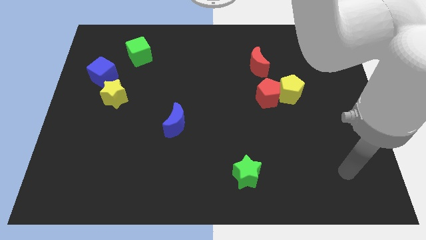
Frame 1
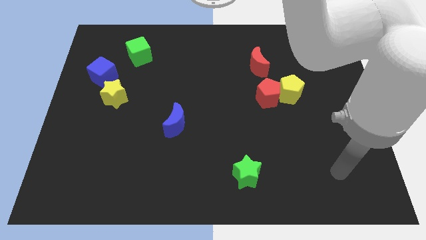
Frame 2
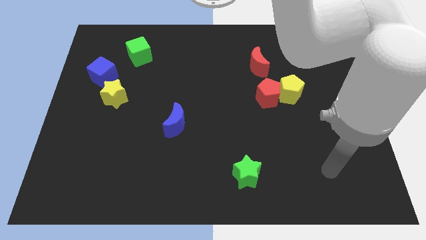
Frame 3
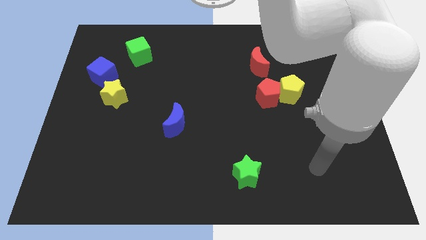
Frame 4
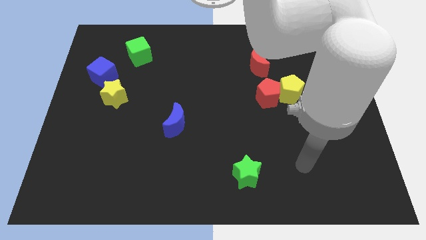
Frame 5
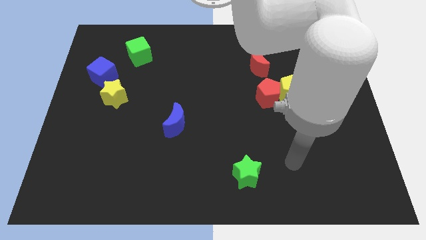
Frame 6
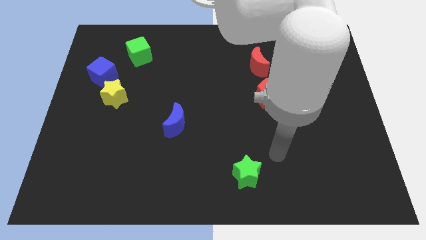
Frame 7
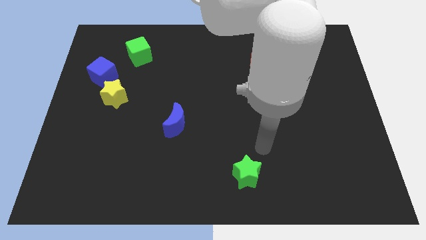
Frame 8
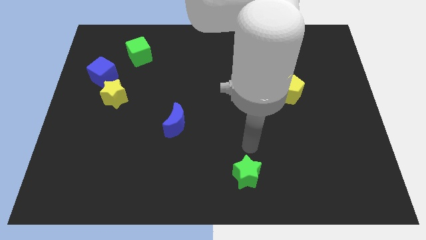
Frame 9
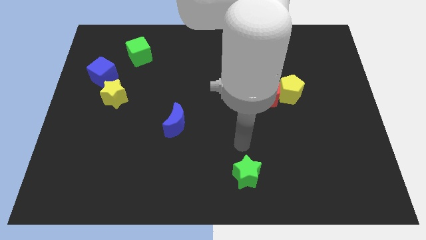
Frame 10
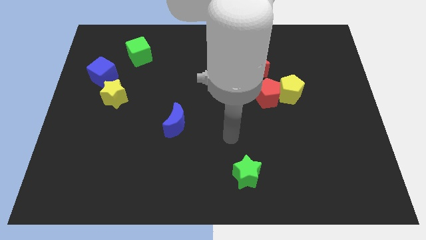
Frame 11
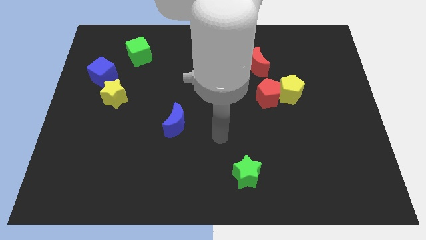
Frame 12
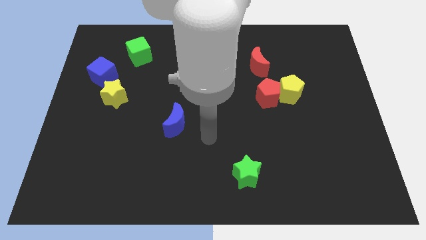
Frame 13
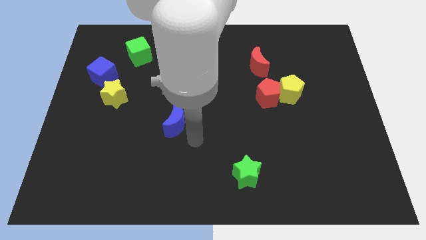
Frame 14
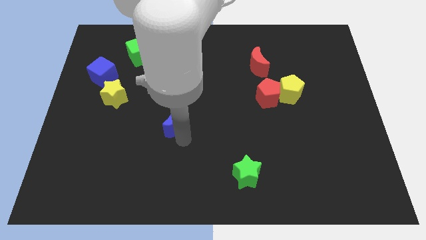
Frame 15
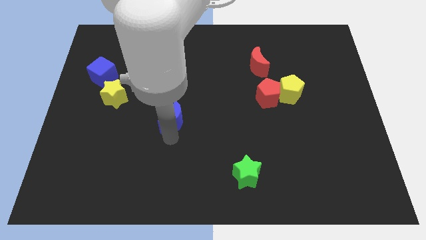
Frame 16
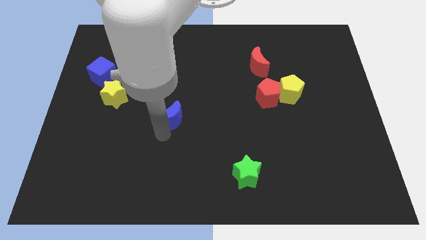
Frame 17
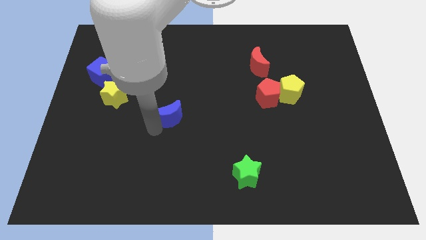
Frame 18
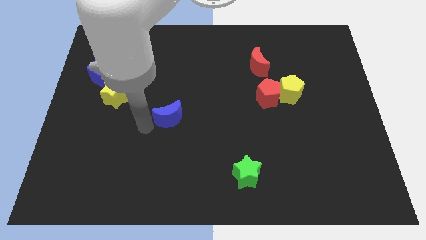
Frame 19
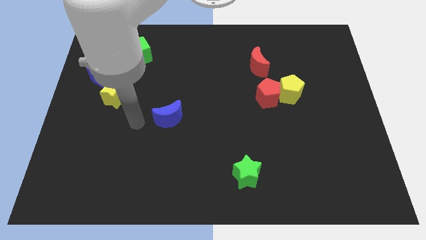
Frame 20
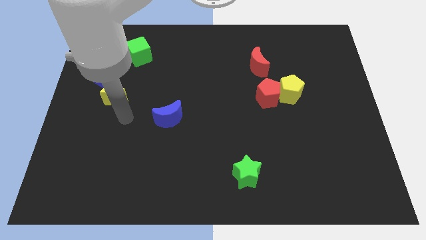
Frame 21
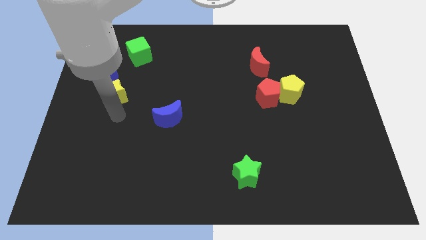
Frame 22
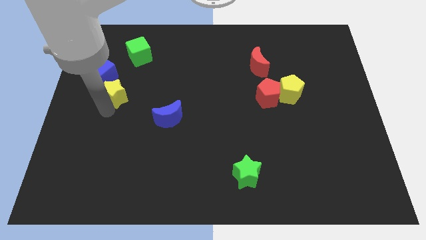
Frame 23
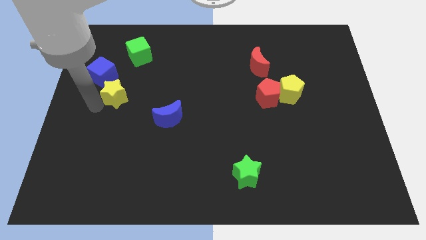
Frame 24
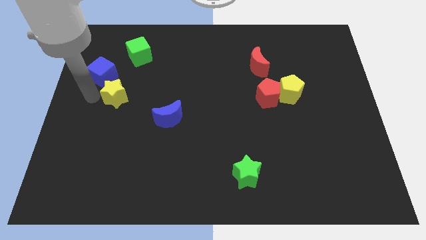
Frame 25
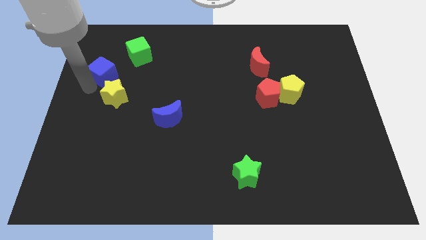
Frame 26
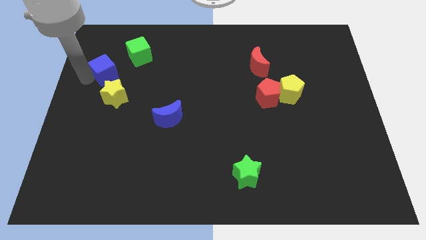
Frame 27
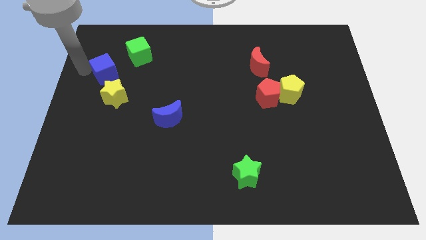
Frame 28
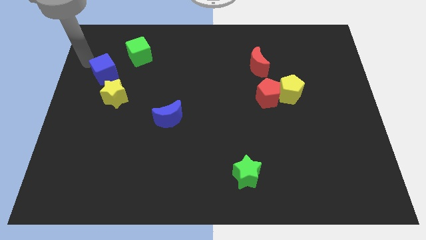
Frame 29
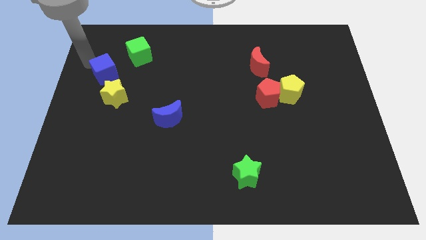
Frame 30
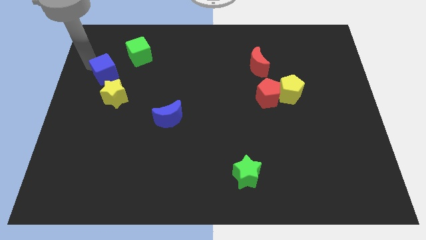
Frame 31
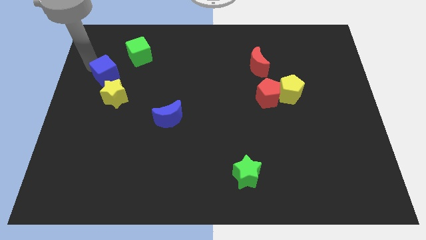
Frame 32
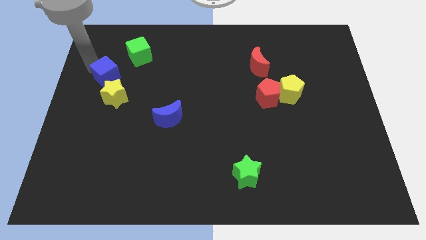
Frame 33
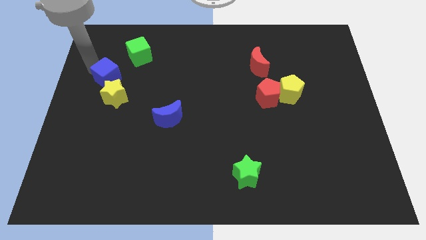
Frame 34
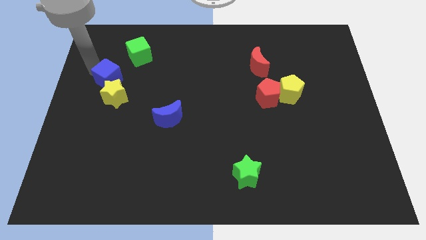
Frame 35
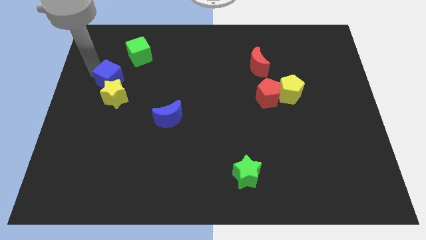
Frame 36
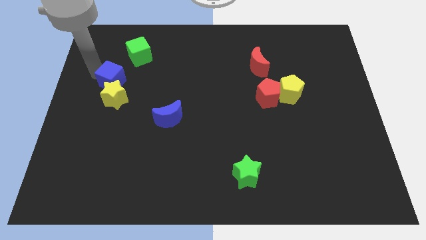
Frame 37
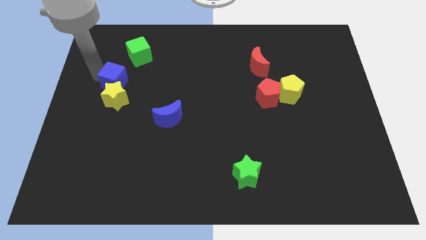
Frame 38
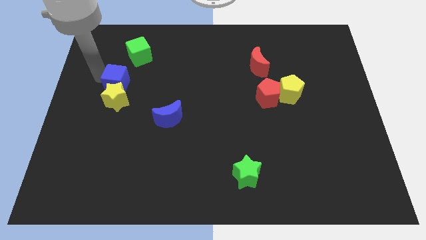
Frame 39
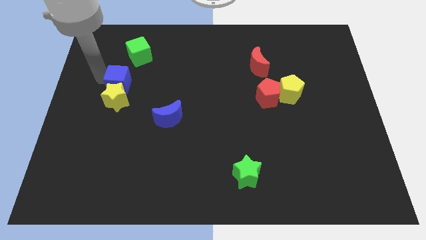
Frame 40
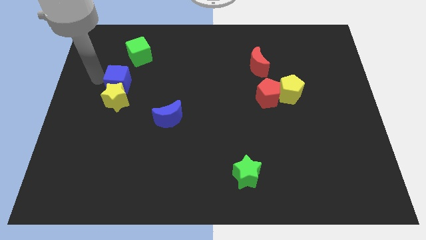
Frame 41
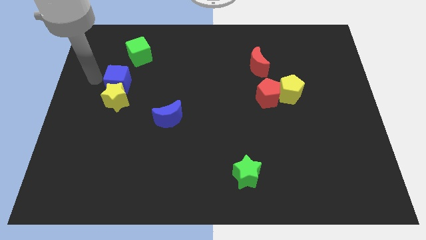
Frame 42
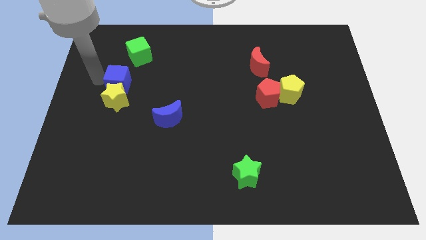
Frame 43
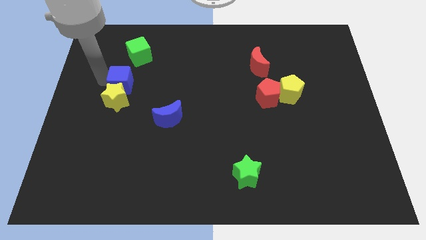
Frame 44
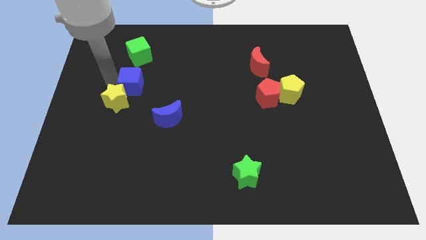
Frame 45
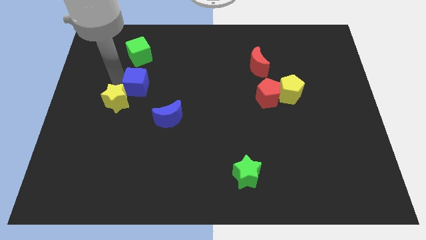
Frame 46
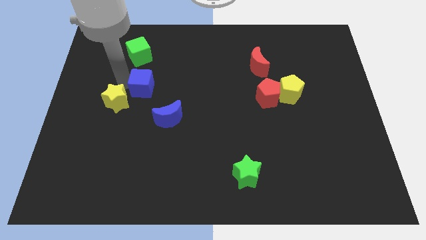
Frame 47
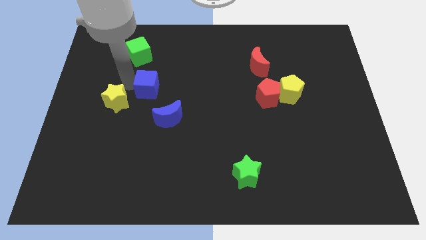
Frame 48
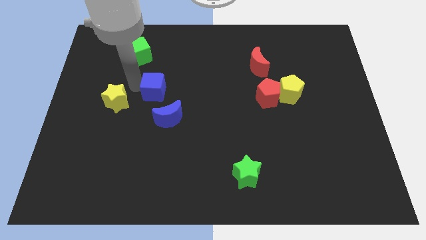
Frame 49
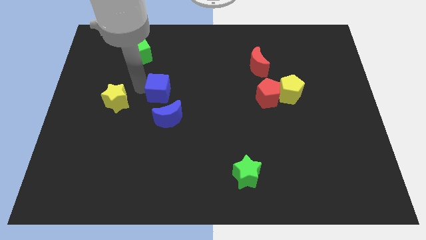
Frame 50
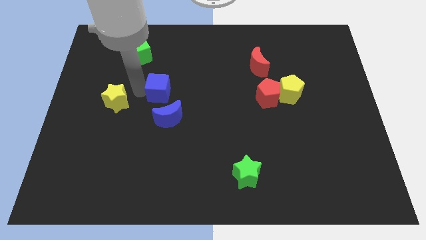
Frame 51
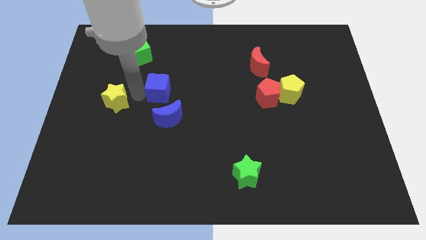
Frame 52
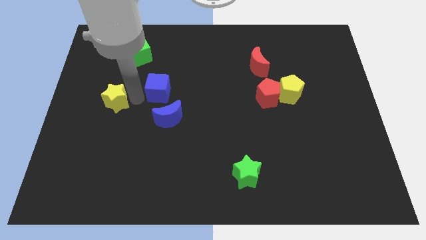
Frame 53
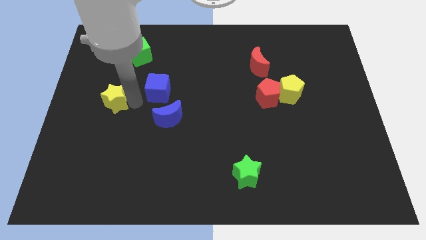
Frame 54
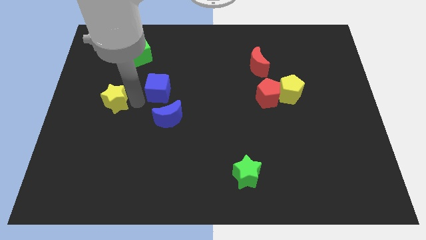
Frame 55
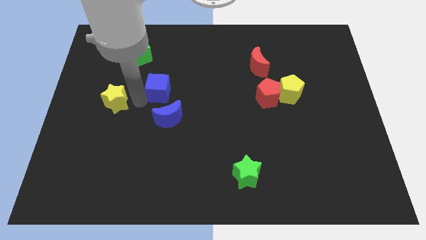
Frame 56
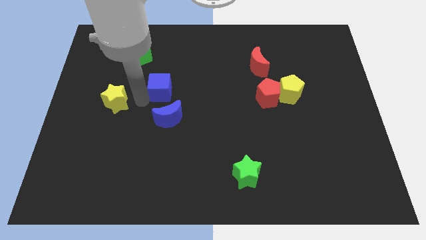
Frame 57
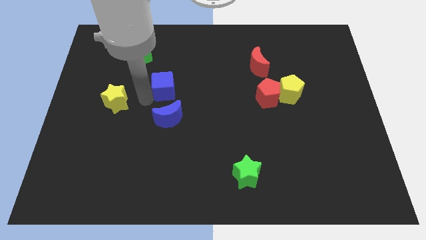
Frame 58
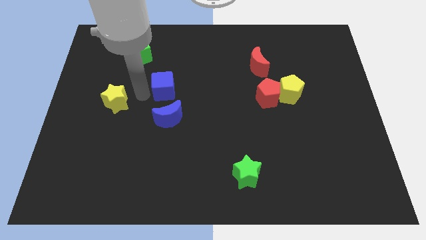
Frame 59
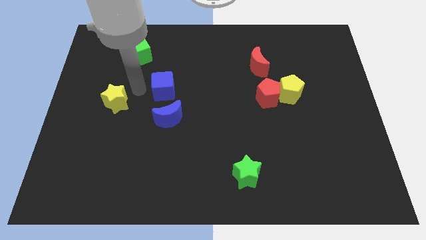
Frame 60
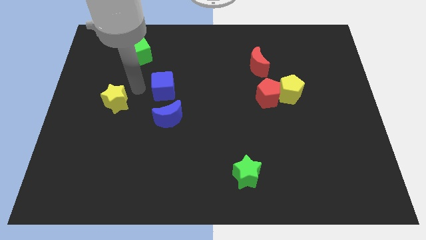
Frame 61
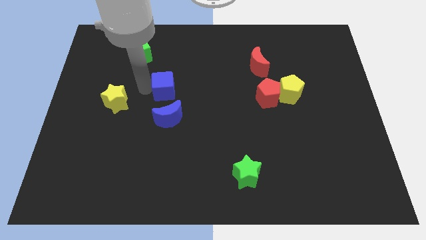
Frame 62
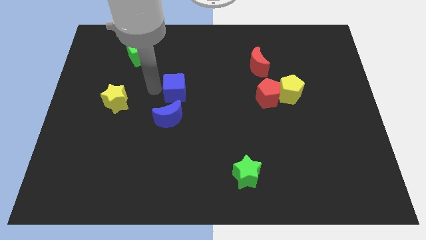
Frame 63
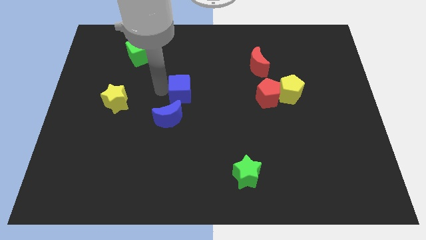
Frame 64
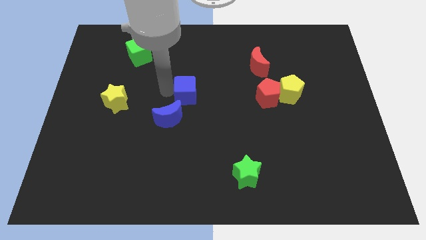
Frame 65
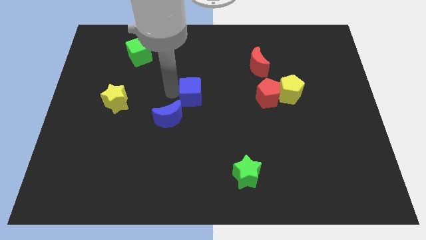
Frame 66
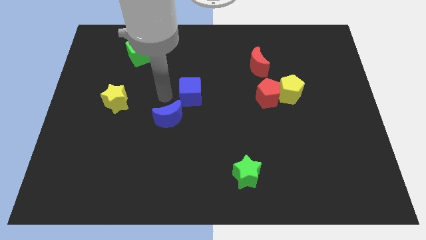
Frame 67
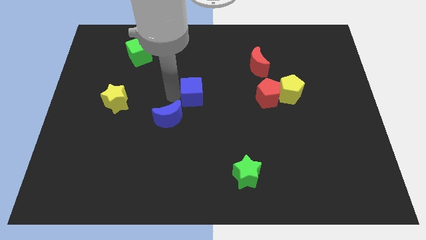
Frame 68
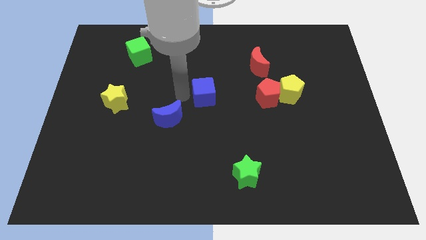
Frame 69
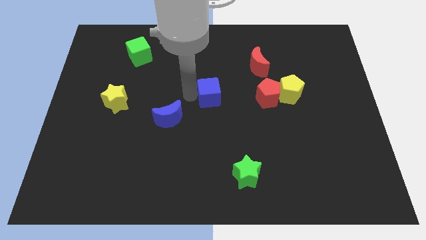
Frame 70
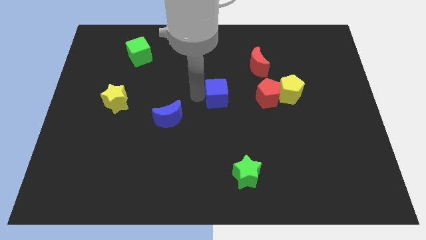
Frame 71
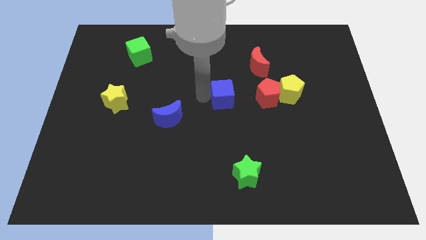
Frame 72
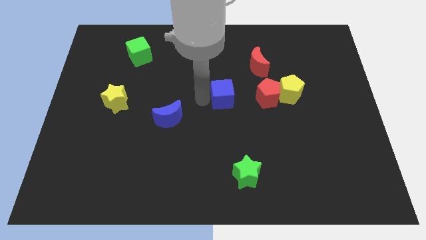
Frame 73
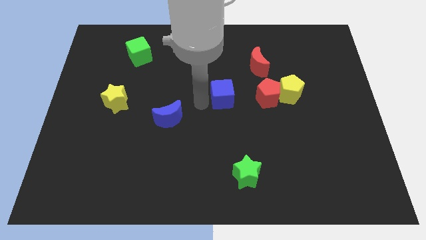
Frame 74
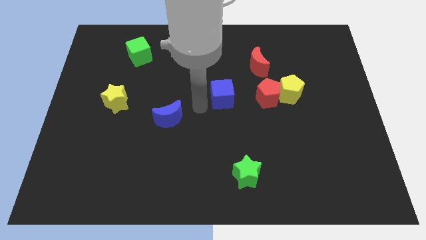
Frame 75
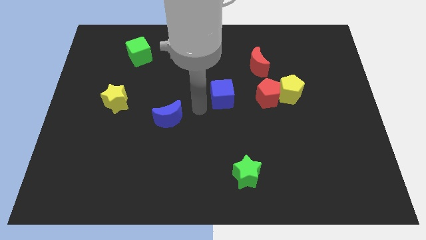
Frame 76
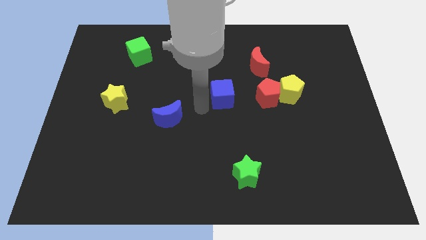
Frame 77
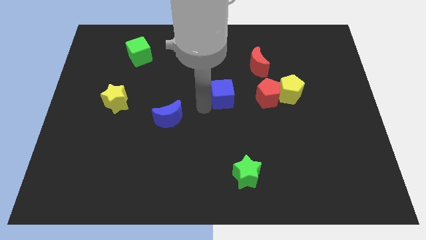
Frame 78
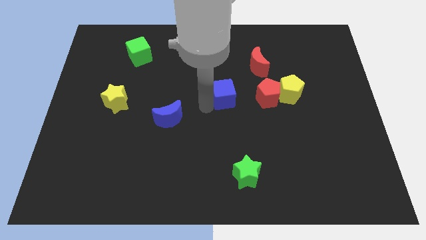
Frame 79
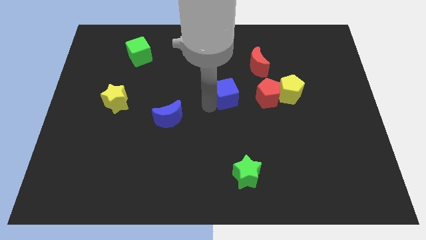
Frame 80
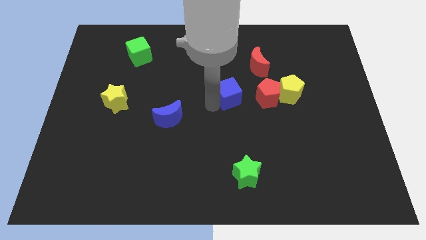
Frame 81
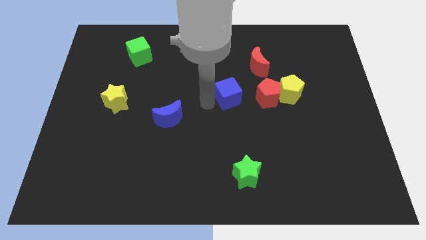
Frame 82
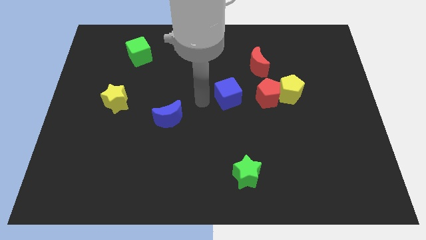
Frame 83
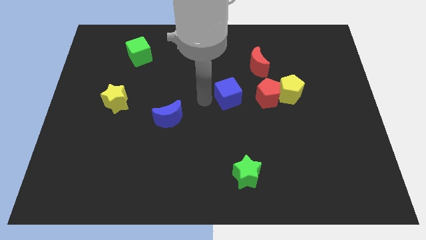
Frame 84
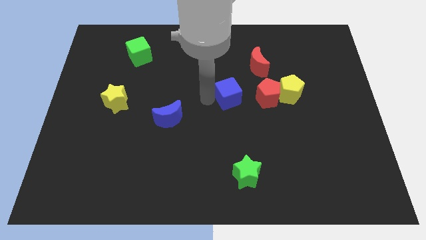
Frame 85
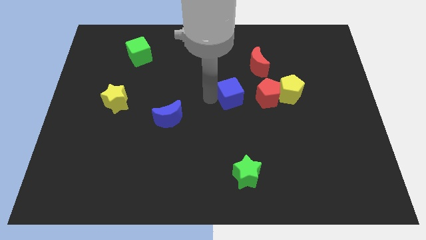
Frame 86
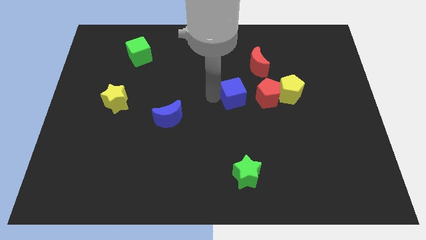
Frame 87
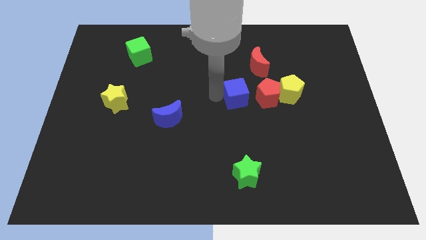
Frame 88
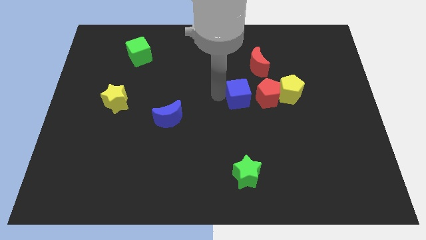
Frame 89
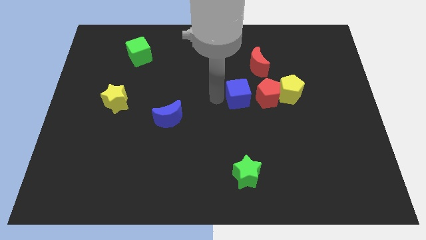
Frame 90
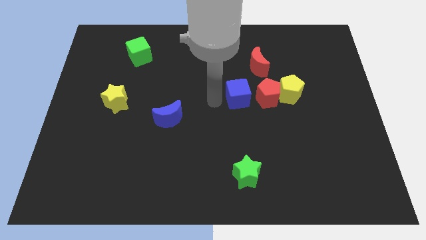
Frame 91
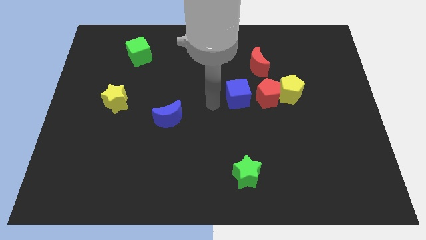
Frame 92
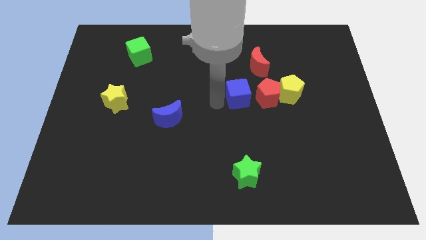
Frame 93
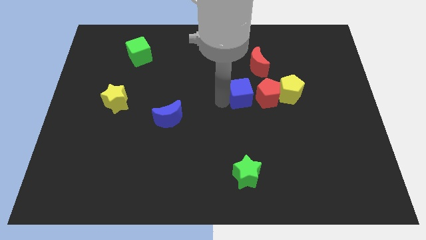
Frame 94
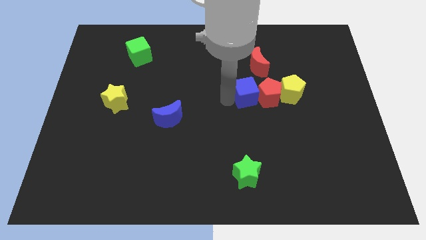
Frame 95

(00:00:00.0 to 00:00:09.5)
push the blue cube to the red pentagon
